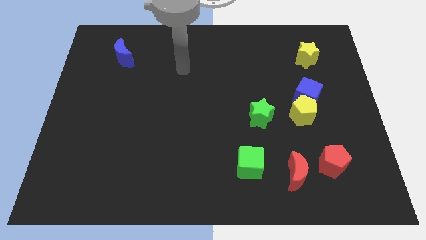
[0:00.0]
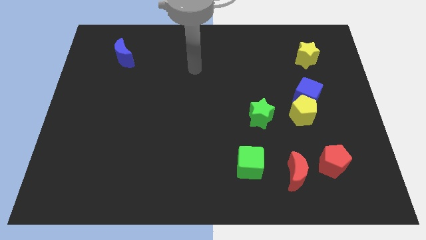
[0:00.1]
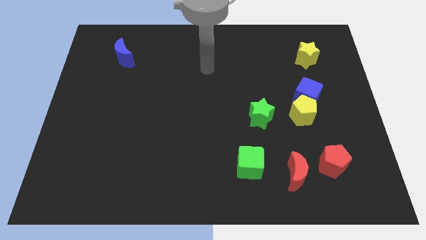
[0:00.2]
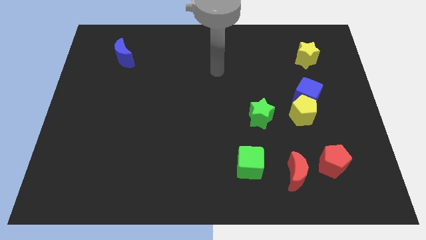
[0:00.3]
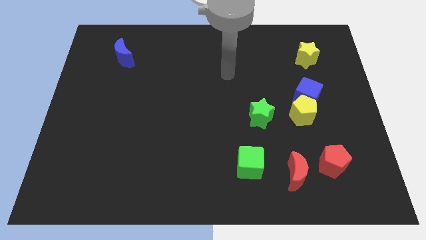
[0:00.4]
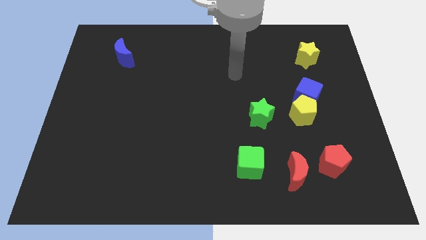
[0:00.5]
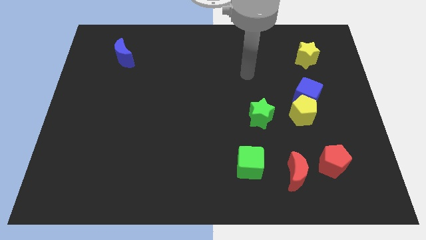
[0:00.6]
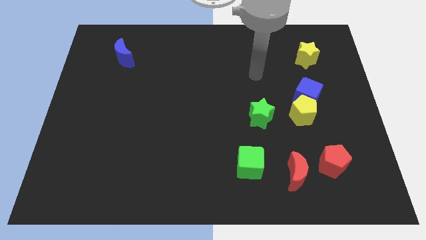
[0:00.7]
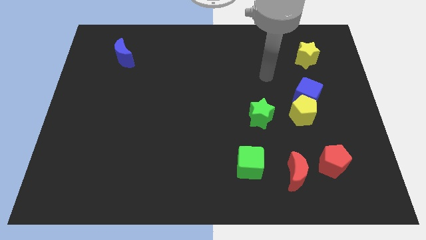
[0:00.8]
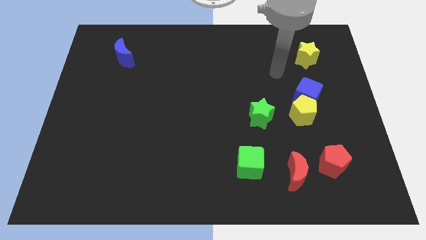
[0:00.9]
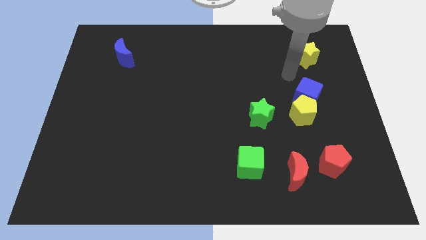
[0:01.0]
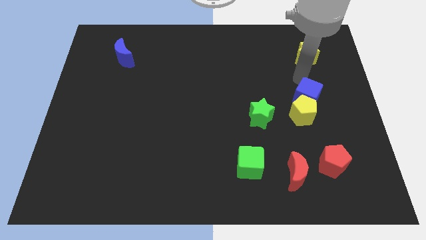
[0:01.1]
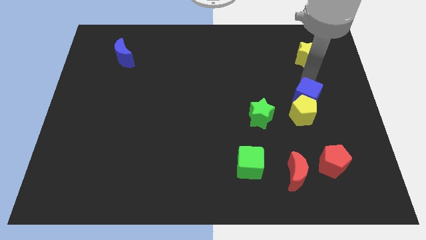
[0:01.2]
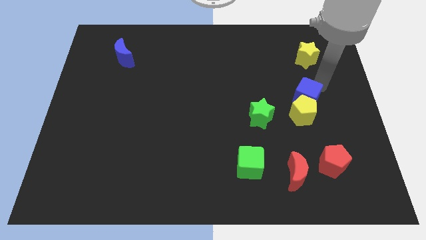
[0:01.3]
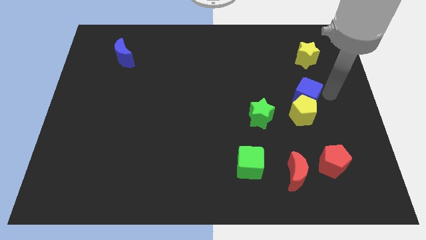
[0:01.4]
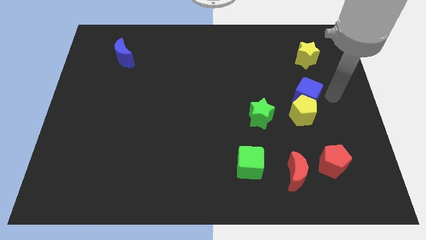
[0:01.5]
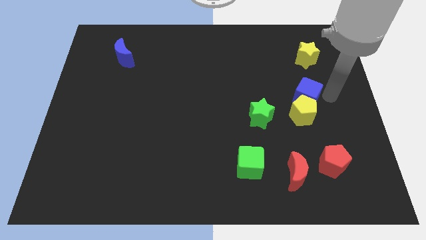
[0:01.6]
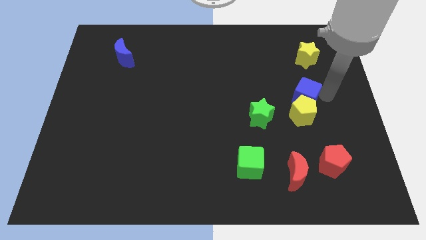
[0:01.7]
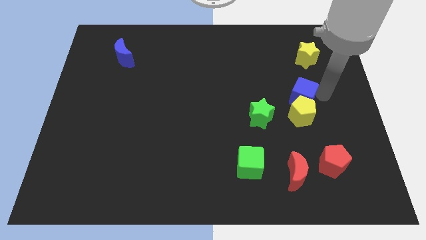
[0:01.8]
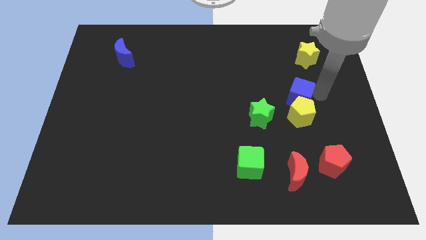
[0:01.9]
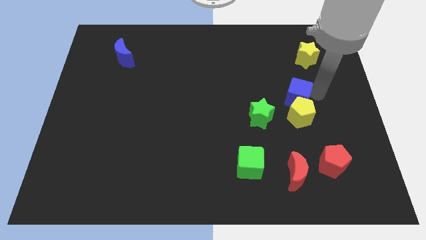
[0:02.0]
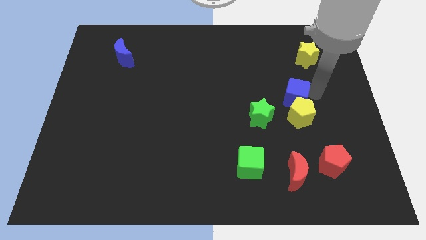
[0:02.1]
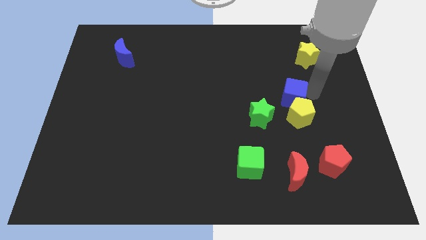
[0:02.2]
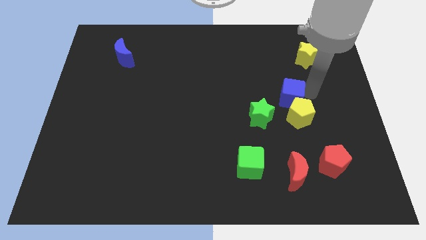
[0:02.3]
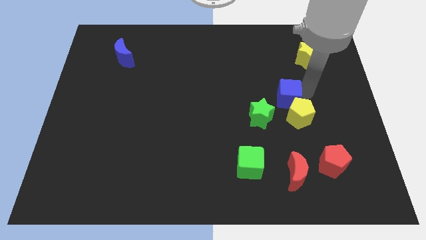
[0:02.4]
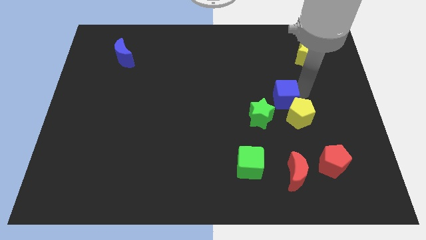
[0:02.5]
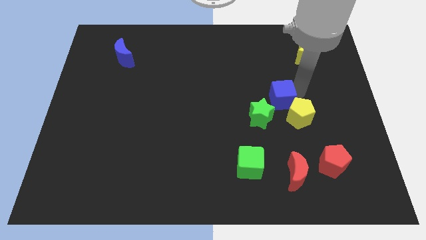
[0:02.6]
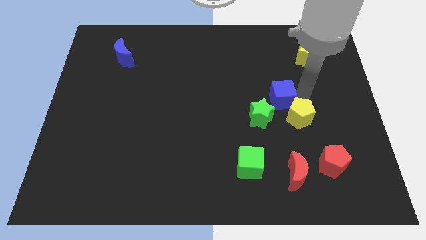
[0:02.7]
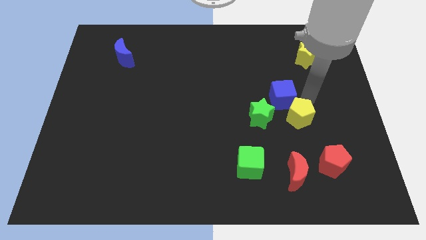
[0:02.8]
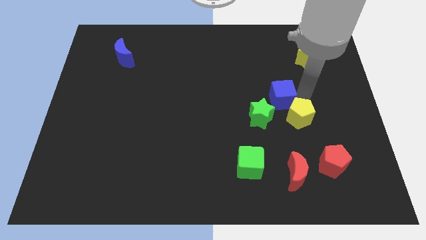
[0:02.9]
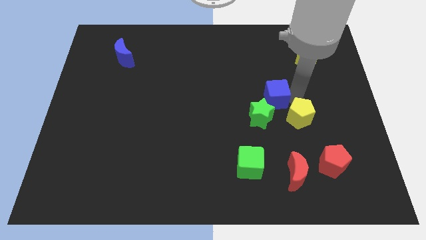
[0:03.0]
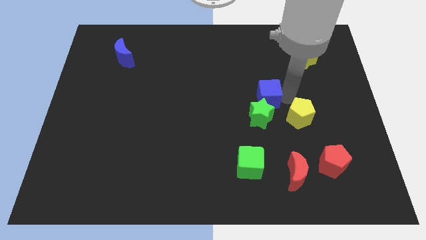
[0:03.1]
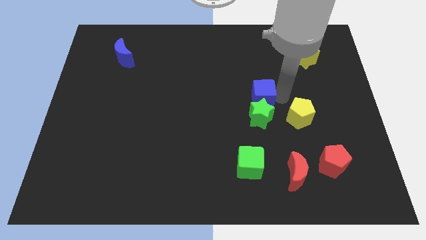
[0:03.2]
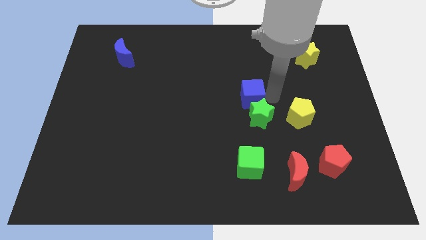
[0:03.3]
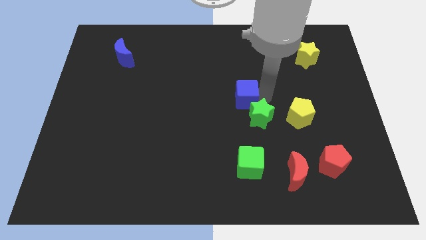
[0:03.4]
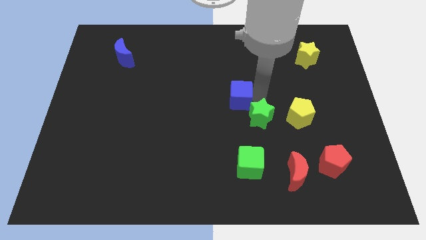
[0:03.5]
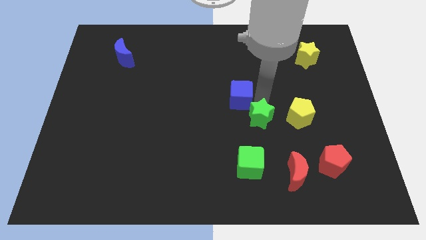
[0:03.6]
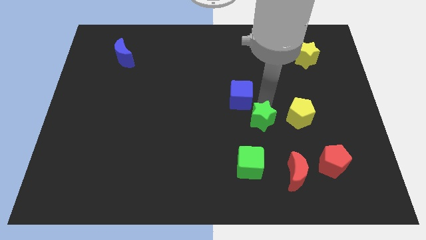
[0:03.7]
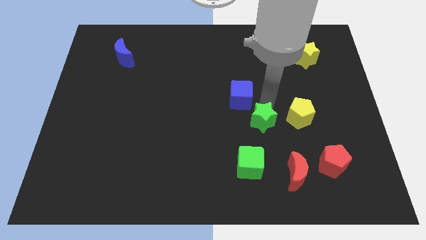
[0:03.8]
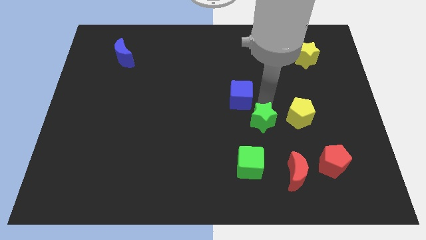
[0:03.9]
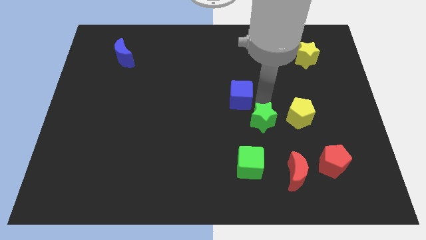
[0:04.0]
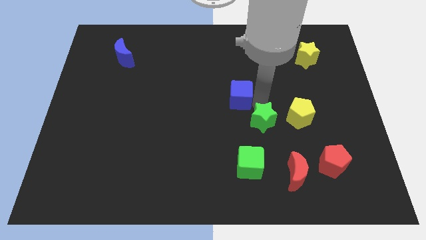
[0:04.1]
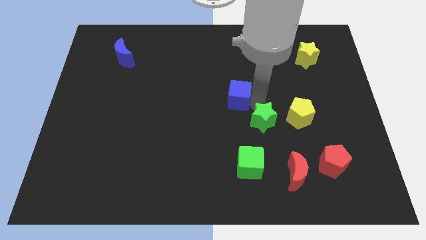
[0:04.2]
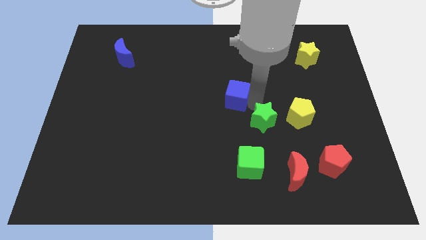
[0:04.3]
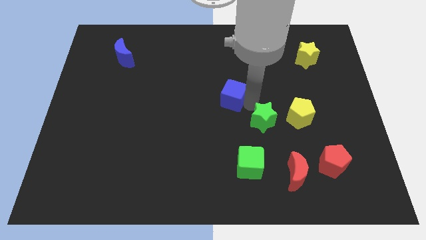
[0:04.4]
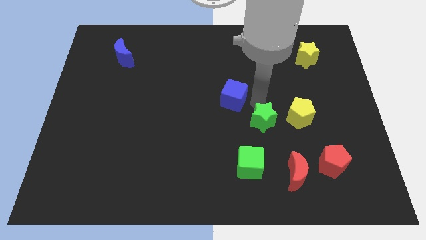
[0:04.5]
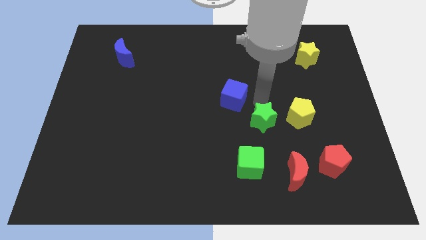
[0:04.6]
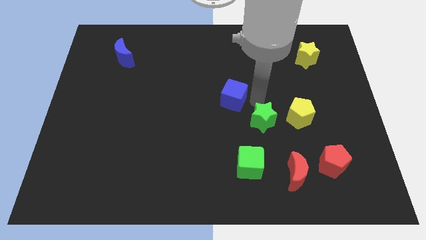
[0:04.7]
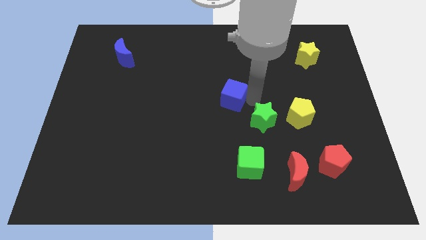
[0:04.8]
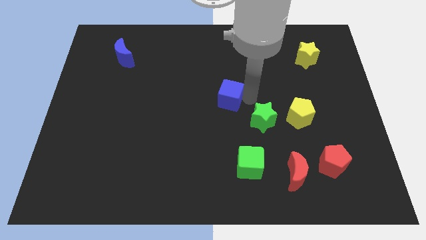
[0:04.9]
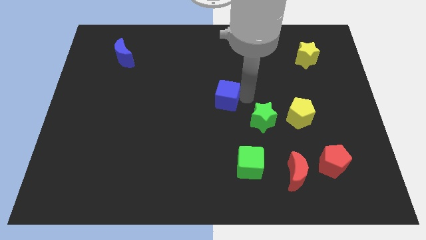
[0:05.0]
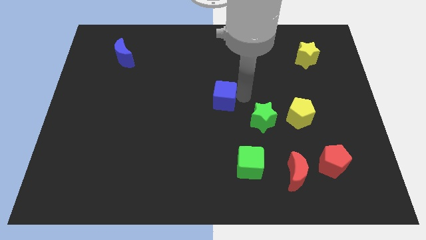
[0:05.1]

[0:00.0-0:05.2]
move the blue cube to the left

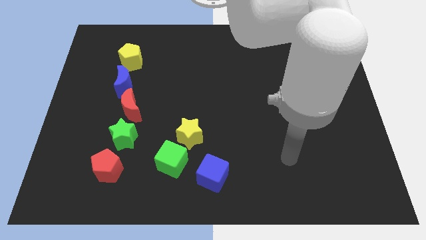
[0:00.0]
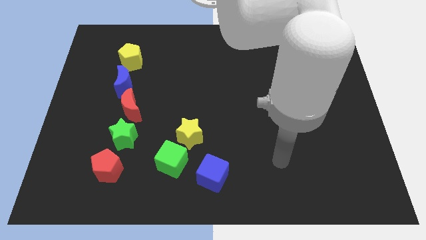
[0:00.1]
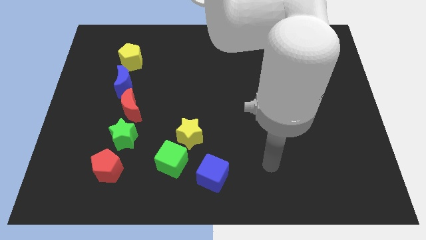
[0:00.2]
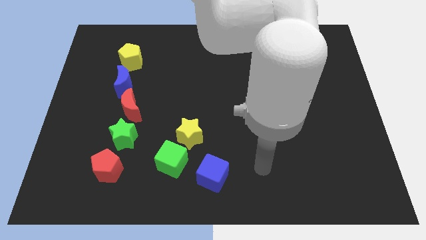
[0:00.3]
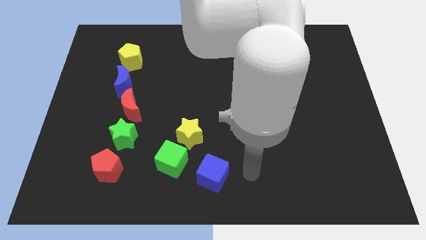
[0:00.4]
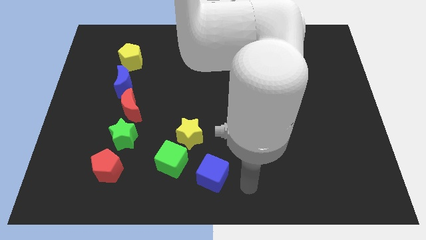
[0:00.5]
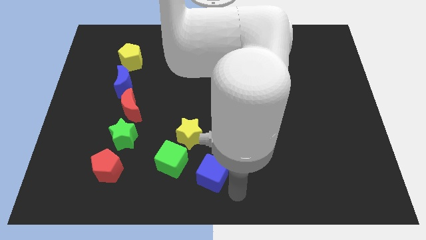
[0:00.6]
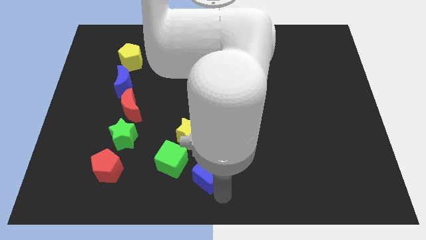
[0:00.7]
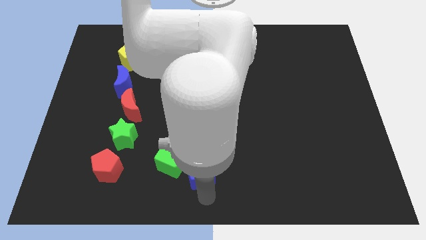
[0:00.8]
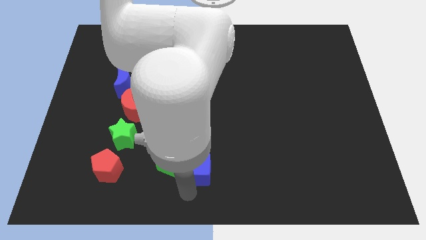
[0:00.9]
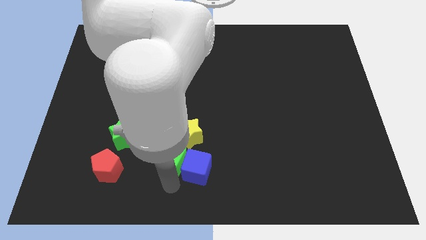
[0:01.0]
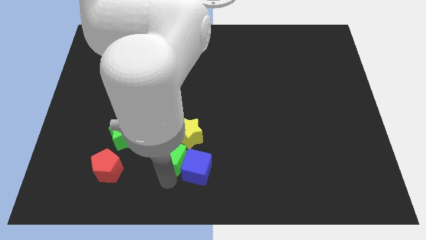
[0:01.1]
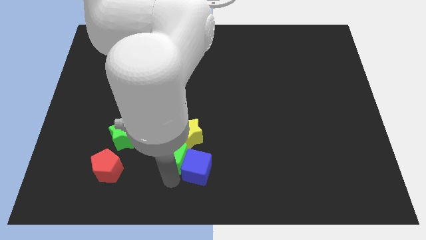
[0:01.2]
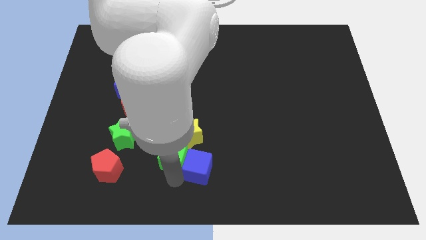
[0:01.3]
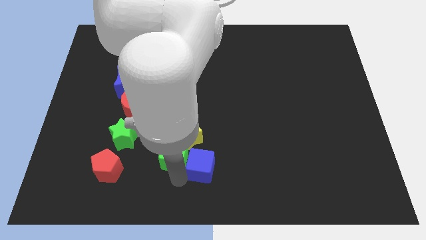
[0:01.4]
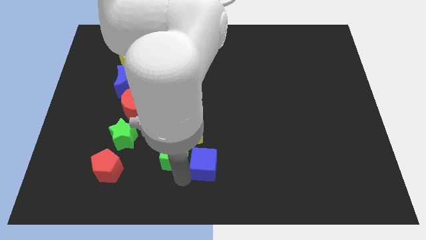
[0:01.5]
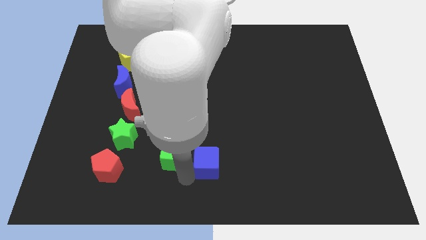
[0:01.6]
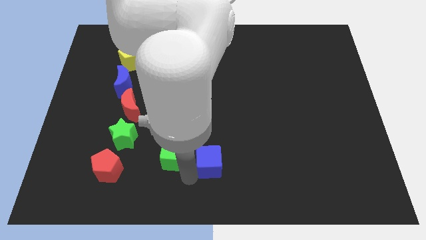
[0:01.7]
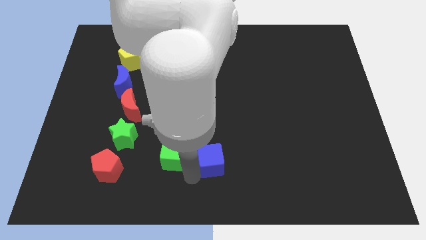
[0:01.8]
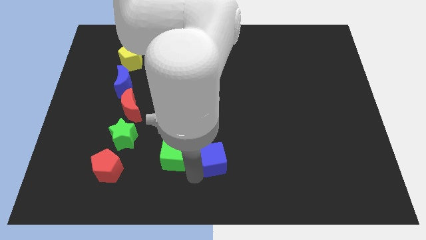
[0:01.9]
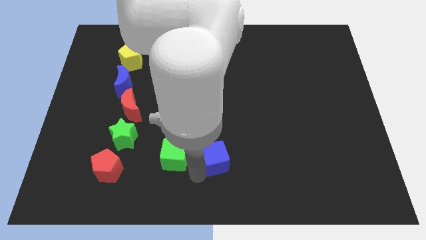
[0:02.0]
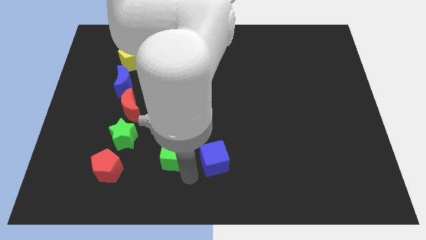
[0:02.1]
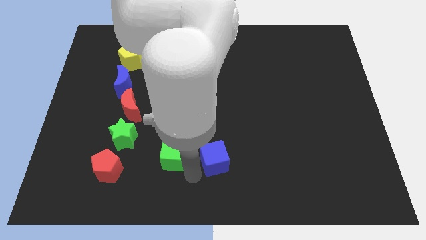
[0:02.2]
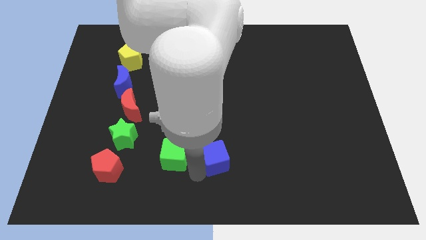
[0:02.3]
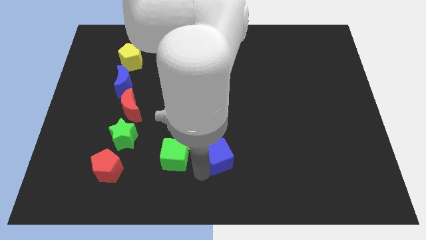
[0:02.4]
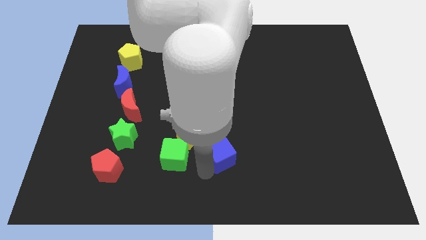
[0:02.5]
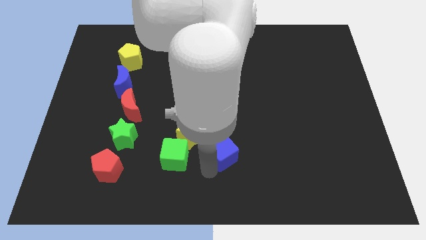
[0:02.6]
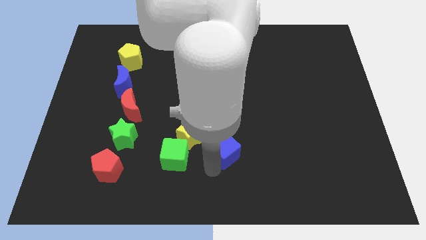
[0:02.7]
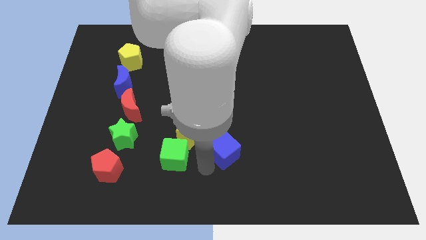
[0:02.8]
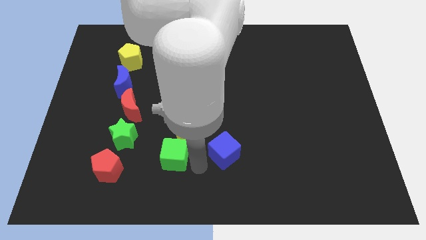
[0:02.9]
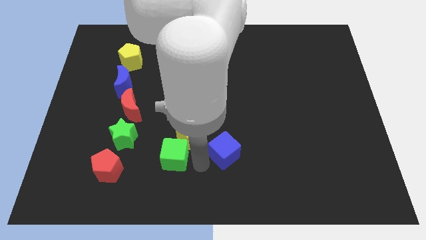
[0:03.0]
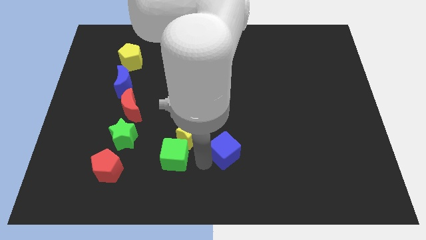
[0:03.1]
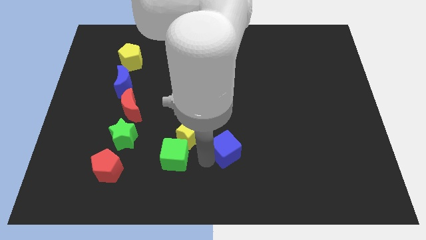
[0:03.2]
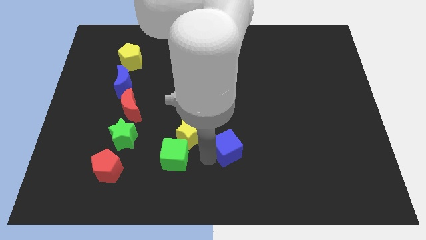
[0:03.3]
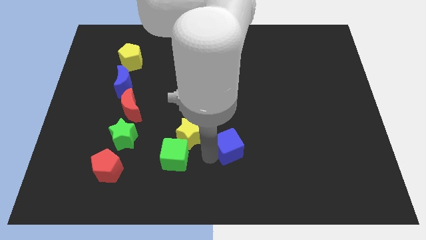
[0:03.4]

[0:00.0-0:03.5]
push the blue cube a bit diagonally upwards and to the right
